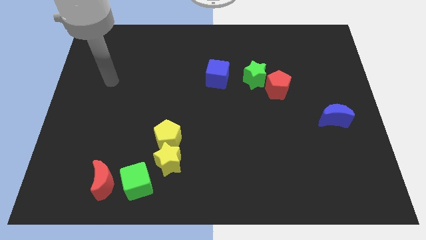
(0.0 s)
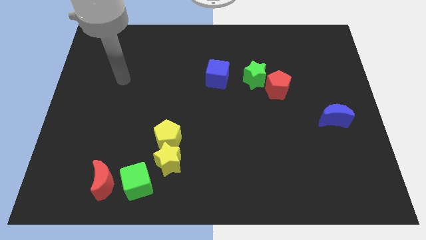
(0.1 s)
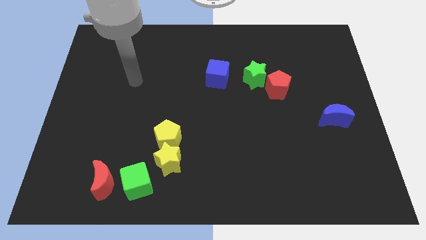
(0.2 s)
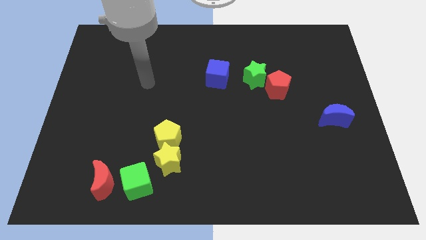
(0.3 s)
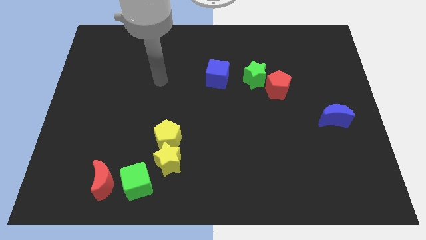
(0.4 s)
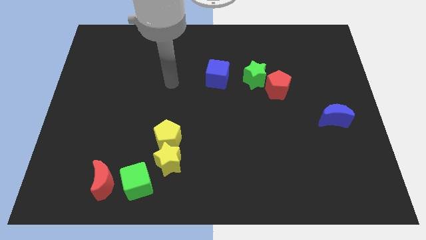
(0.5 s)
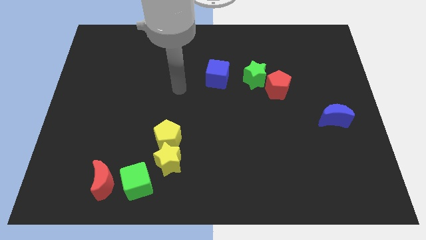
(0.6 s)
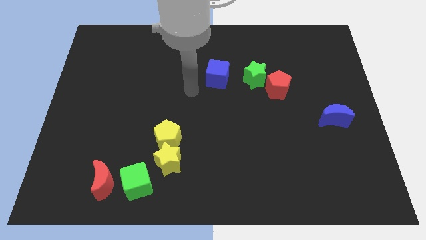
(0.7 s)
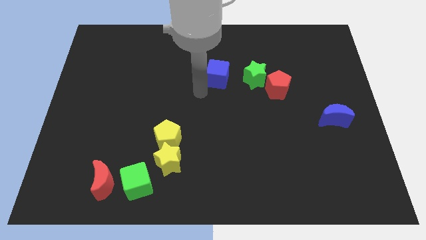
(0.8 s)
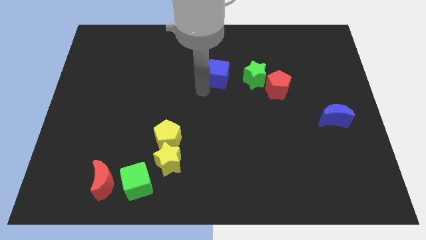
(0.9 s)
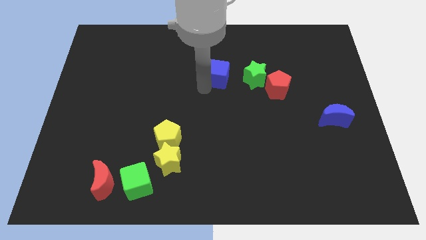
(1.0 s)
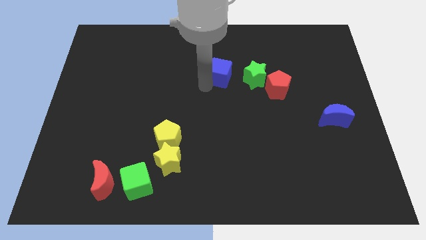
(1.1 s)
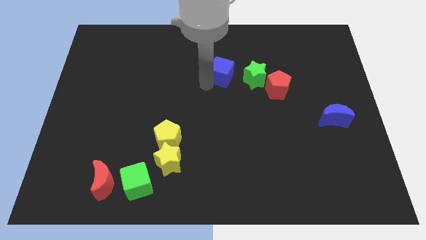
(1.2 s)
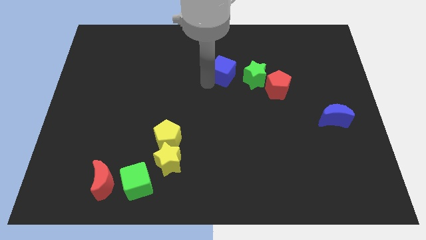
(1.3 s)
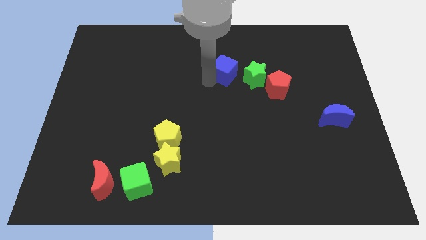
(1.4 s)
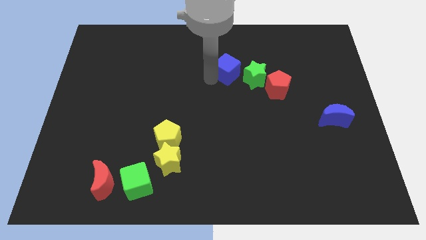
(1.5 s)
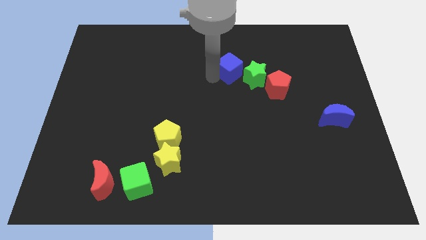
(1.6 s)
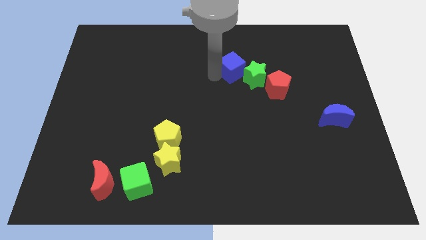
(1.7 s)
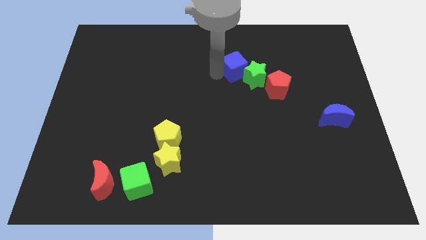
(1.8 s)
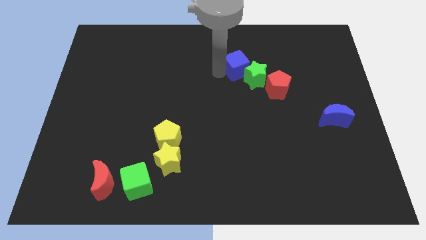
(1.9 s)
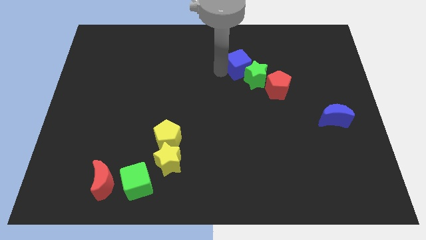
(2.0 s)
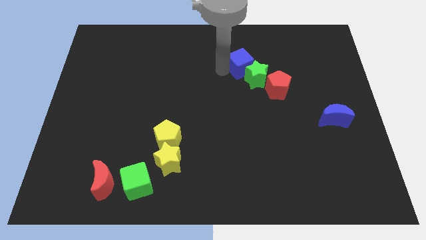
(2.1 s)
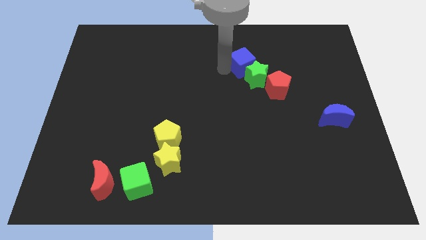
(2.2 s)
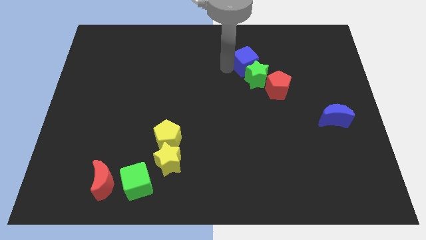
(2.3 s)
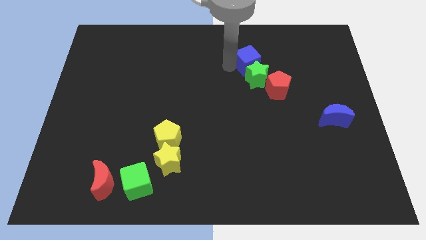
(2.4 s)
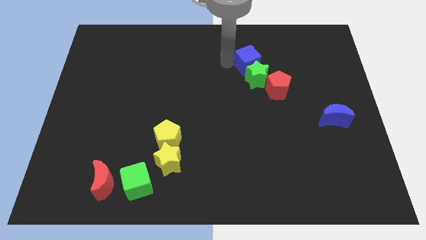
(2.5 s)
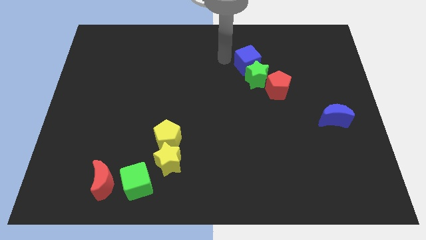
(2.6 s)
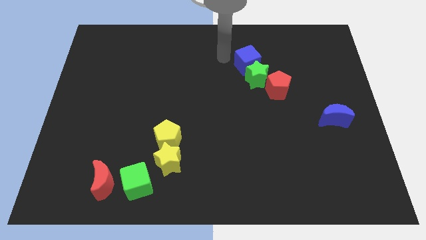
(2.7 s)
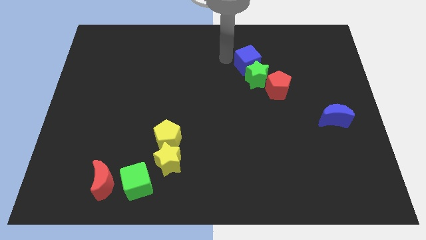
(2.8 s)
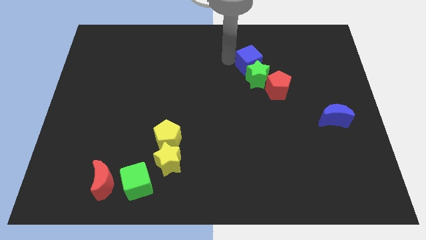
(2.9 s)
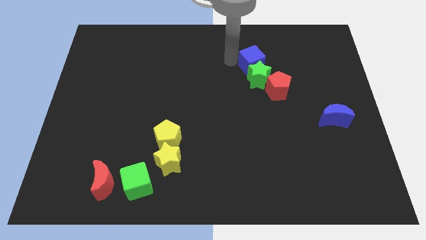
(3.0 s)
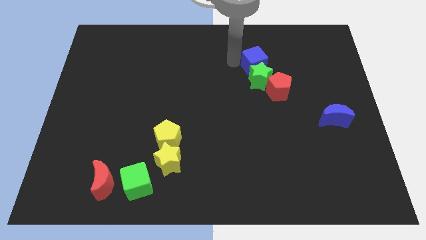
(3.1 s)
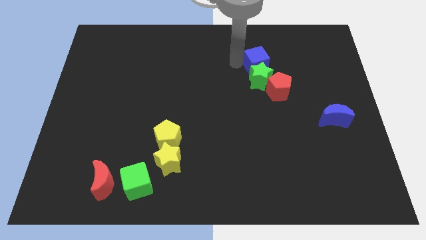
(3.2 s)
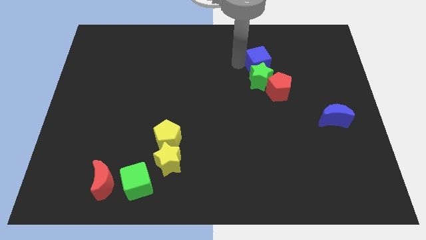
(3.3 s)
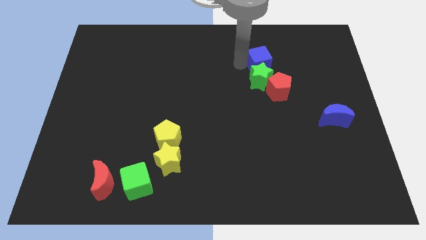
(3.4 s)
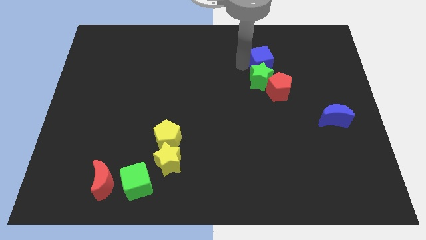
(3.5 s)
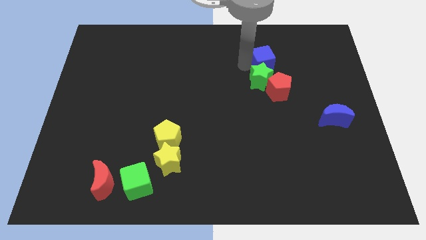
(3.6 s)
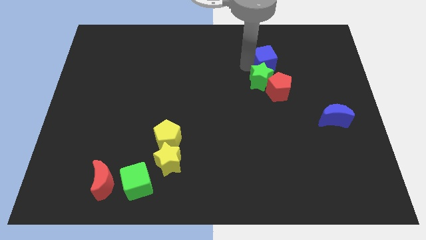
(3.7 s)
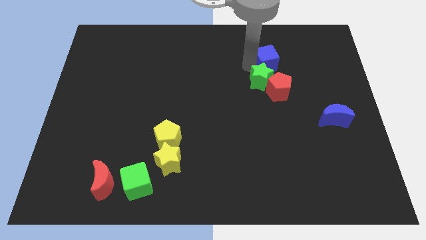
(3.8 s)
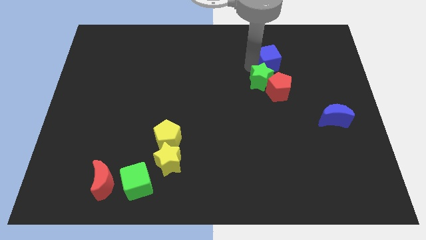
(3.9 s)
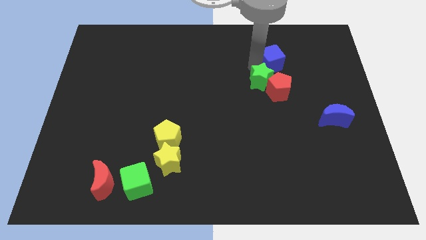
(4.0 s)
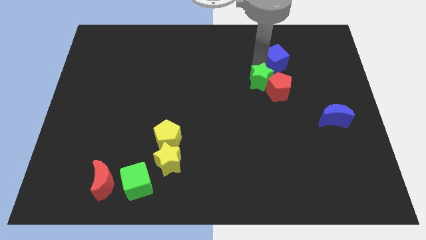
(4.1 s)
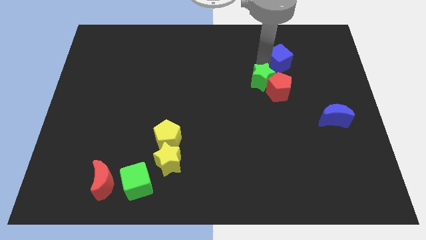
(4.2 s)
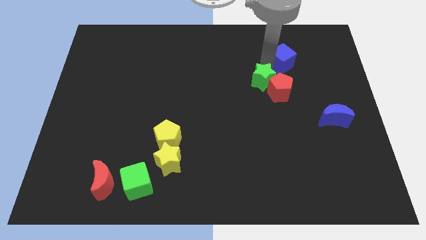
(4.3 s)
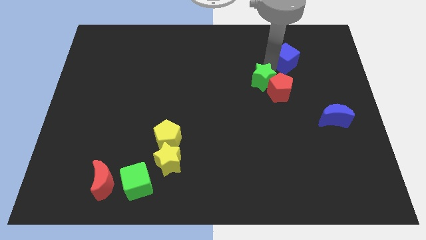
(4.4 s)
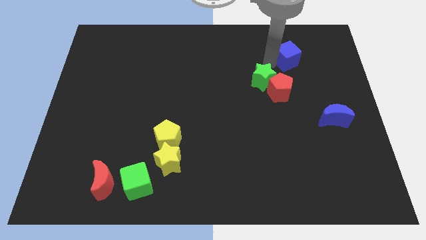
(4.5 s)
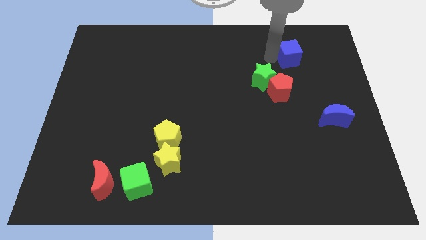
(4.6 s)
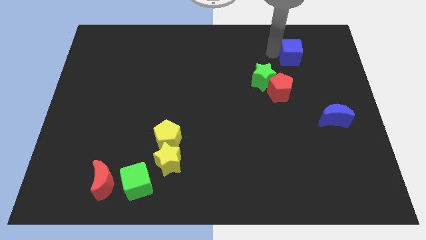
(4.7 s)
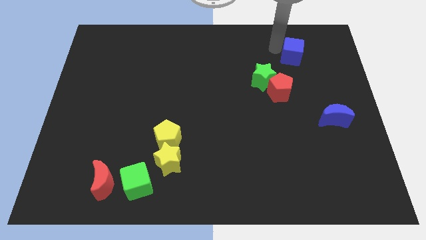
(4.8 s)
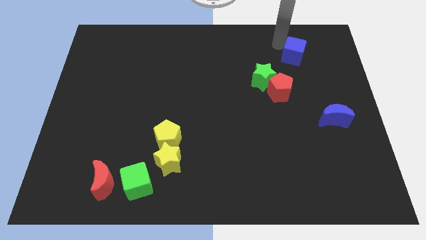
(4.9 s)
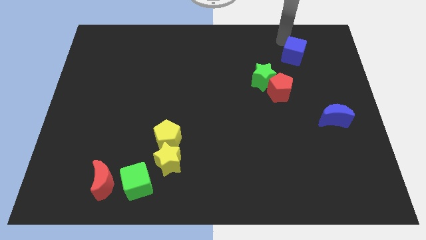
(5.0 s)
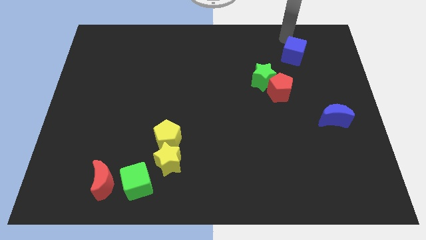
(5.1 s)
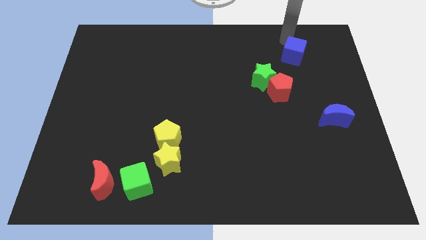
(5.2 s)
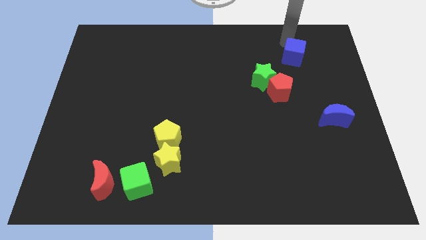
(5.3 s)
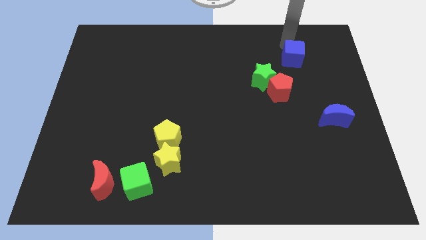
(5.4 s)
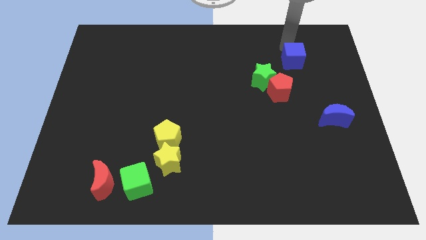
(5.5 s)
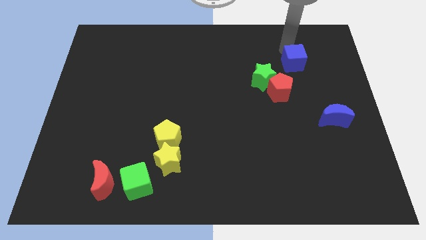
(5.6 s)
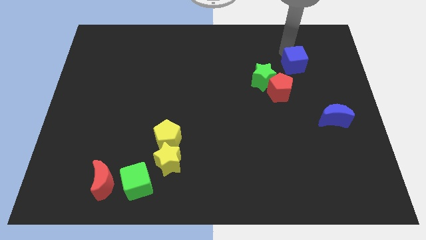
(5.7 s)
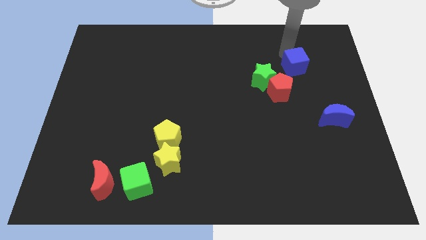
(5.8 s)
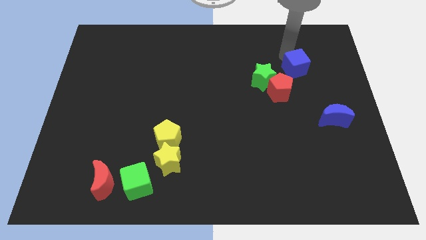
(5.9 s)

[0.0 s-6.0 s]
push the blue cube to the right of the green star

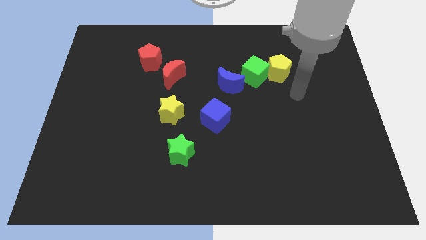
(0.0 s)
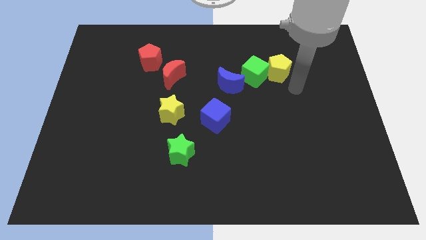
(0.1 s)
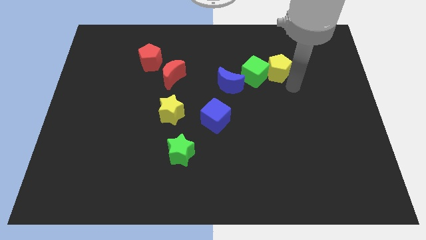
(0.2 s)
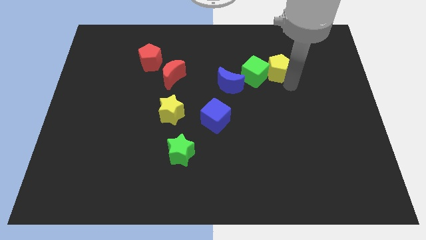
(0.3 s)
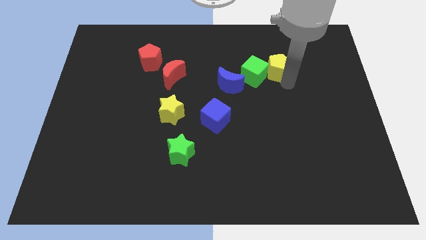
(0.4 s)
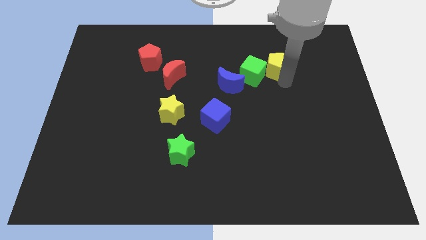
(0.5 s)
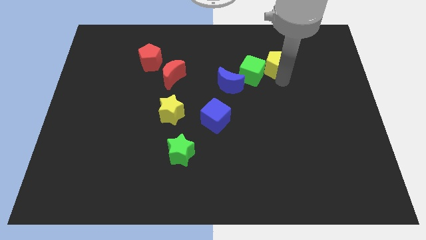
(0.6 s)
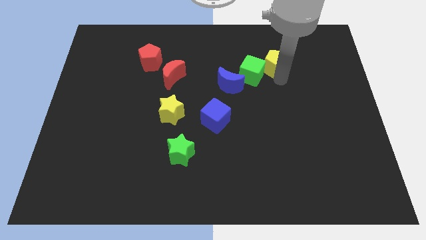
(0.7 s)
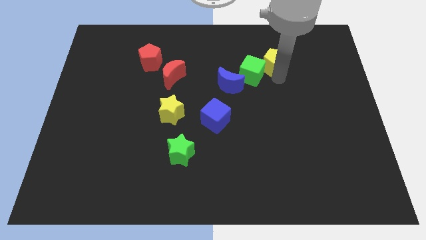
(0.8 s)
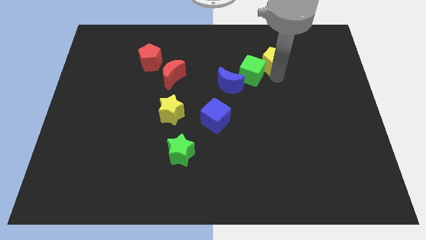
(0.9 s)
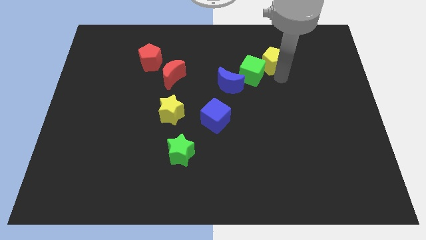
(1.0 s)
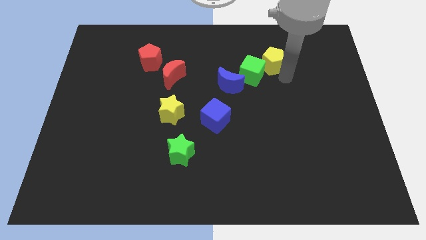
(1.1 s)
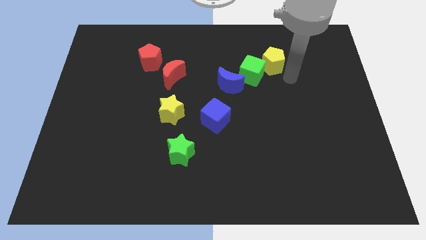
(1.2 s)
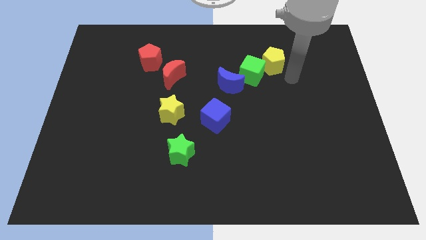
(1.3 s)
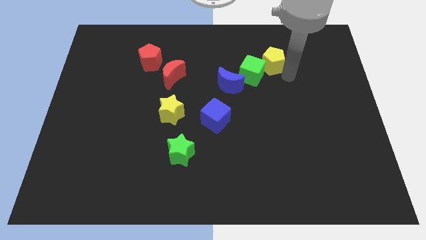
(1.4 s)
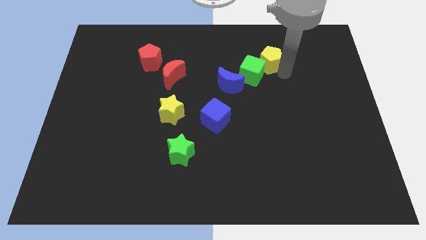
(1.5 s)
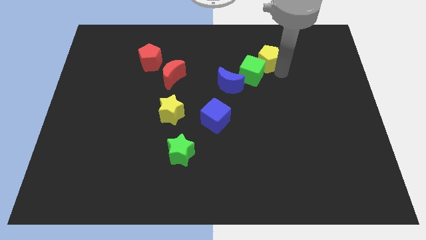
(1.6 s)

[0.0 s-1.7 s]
slide the yellow pentagon to the top right of the blue moon
